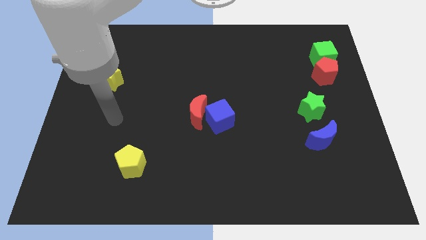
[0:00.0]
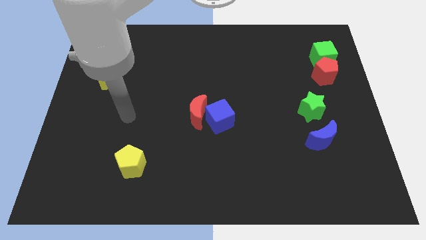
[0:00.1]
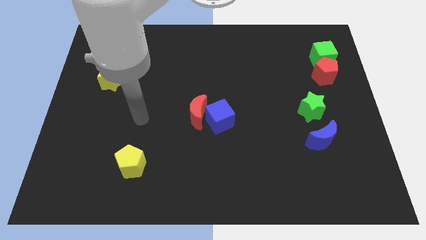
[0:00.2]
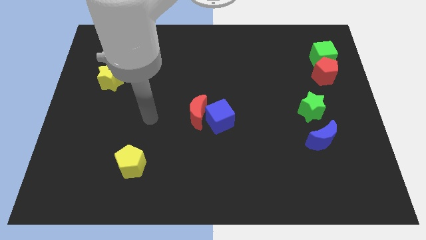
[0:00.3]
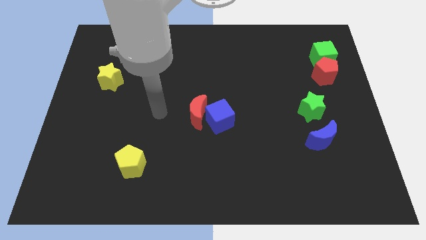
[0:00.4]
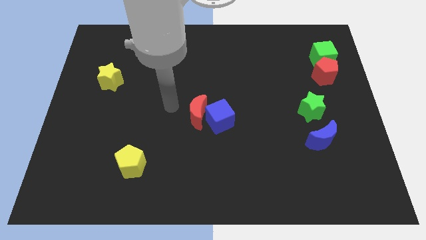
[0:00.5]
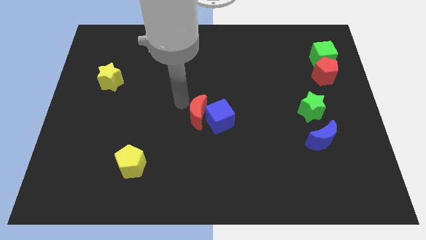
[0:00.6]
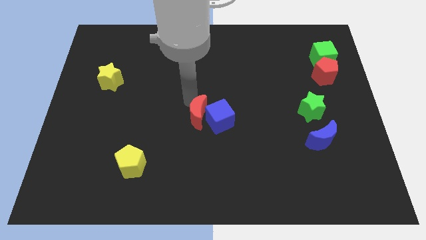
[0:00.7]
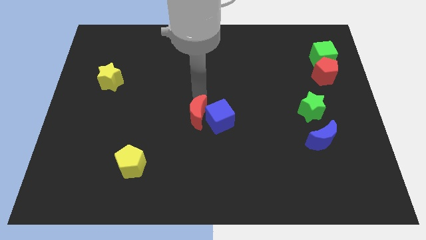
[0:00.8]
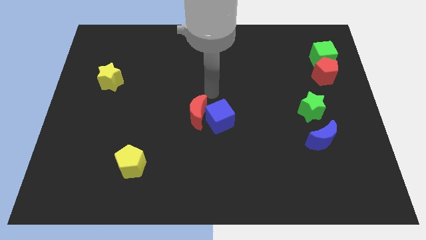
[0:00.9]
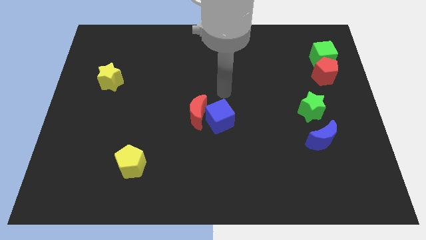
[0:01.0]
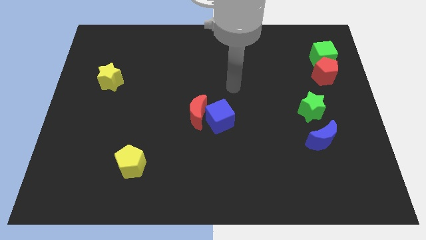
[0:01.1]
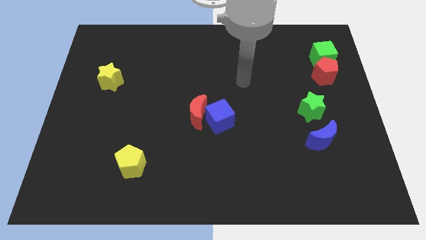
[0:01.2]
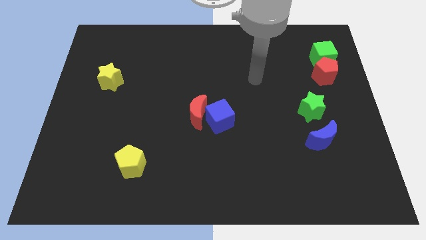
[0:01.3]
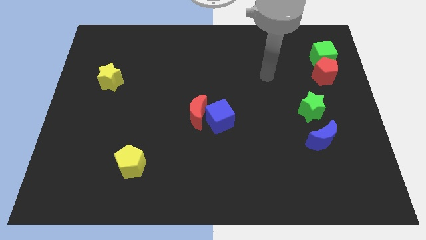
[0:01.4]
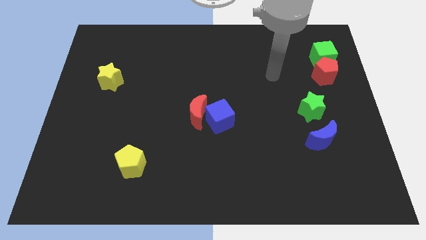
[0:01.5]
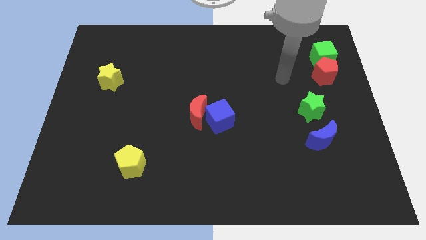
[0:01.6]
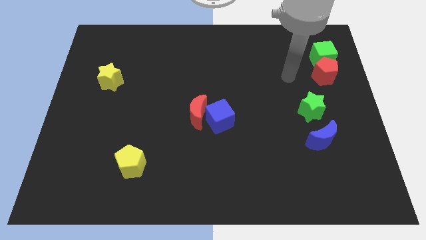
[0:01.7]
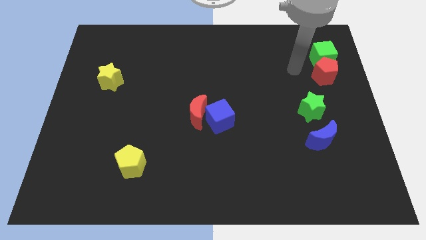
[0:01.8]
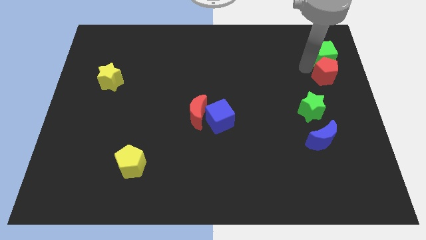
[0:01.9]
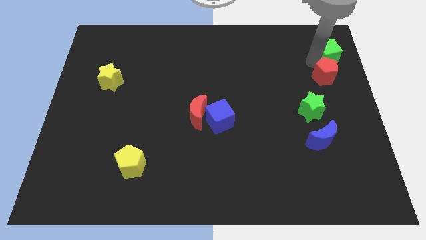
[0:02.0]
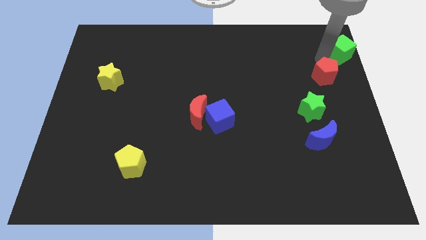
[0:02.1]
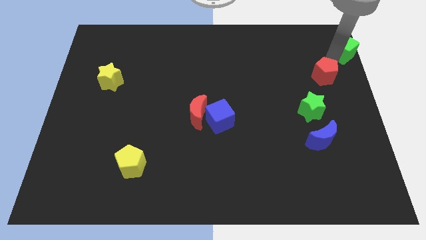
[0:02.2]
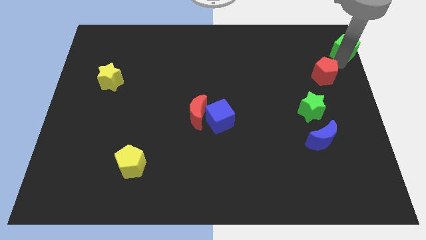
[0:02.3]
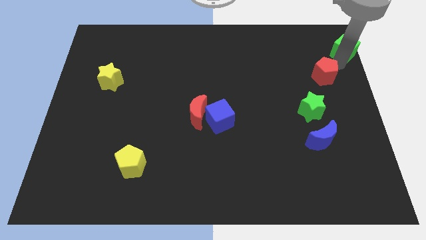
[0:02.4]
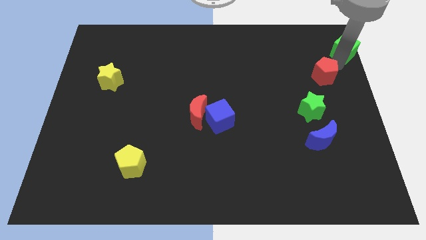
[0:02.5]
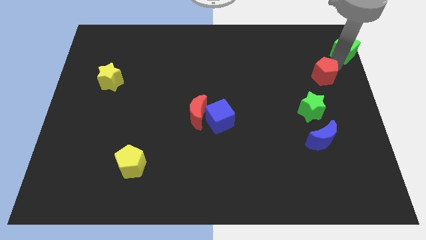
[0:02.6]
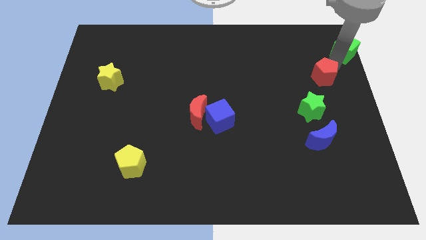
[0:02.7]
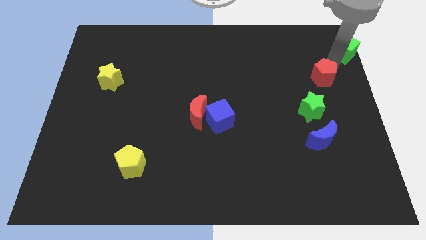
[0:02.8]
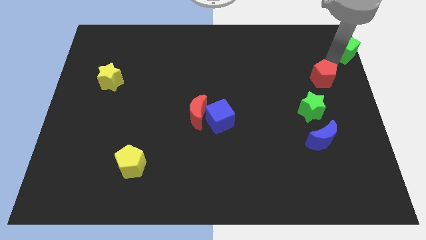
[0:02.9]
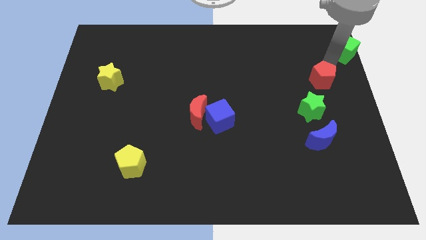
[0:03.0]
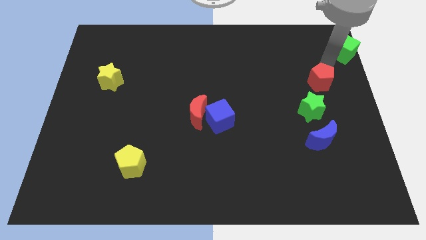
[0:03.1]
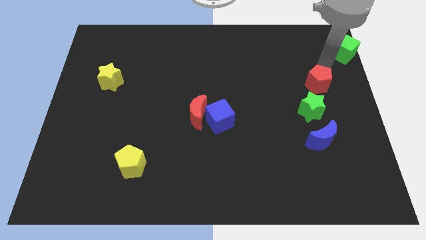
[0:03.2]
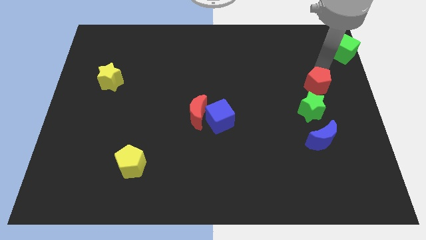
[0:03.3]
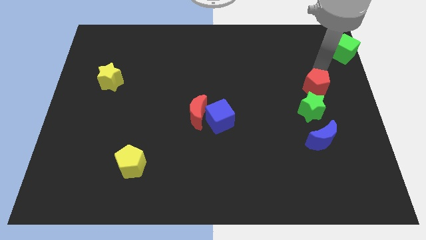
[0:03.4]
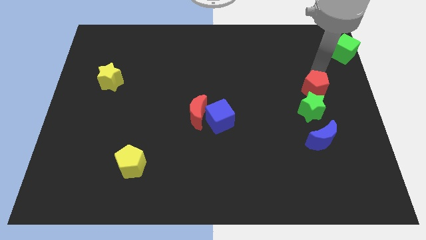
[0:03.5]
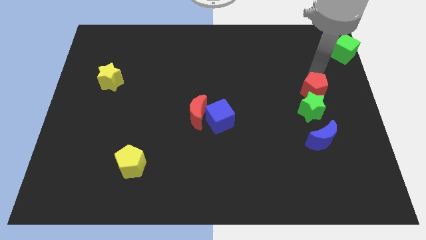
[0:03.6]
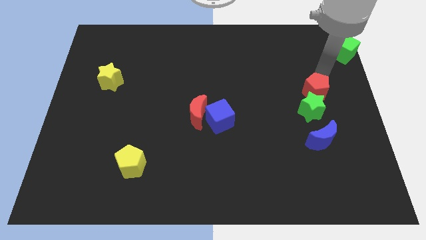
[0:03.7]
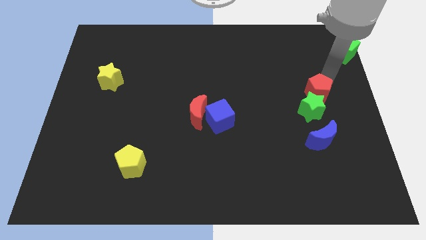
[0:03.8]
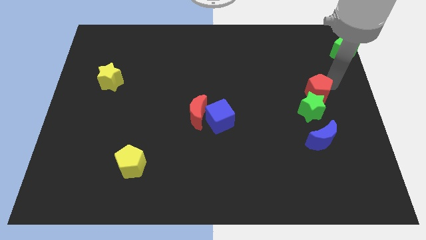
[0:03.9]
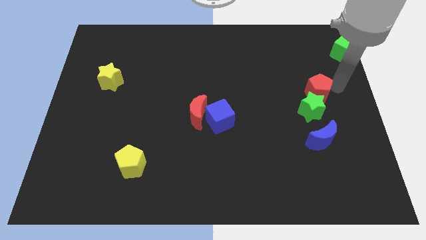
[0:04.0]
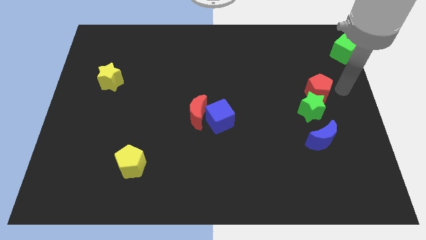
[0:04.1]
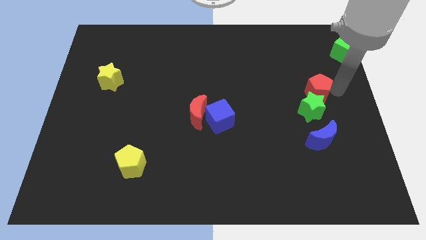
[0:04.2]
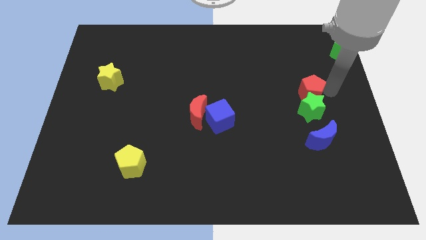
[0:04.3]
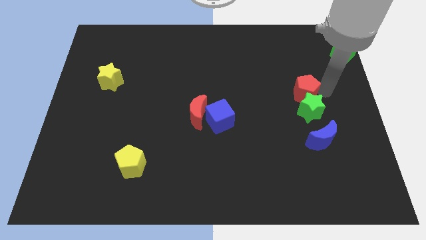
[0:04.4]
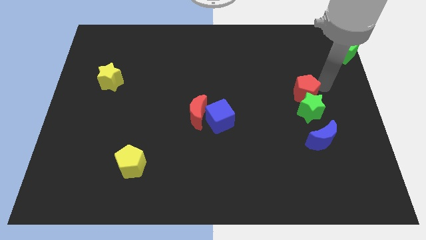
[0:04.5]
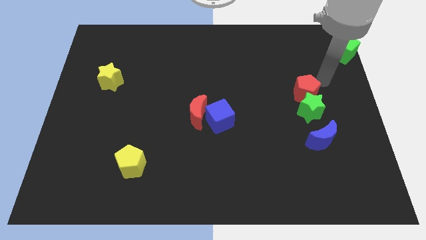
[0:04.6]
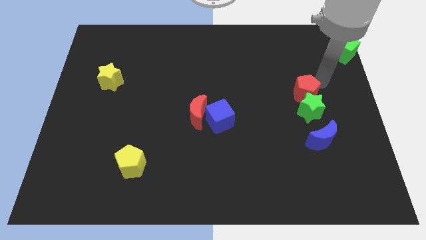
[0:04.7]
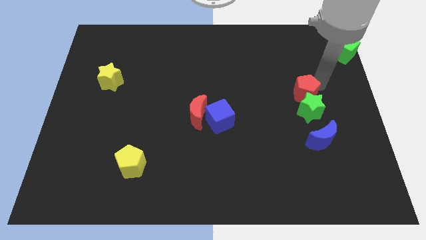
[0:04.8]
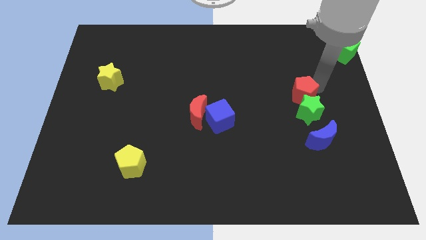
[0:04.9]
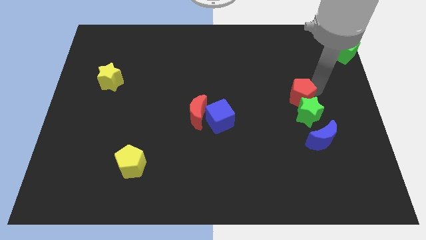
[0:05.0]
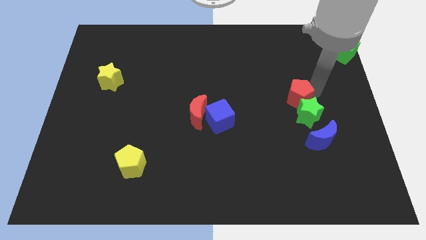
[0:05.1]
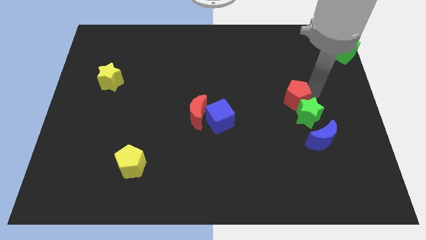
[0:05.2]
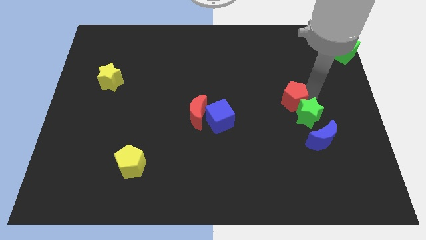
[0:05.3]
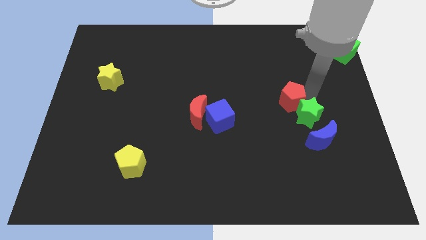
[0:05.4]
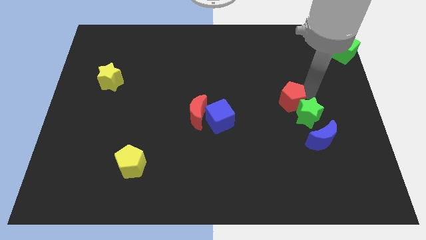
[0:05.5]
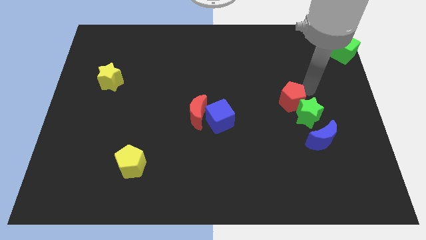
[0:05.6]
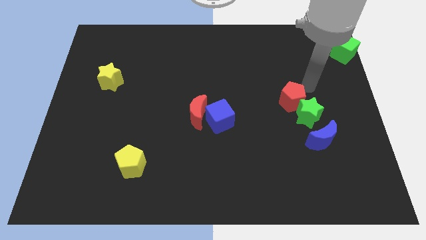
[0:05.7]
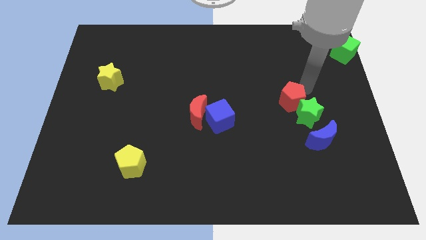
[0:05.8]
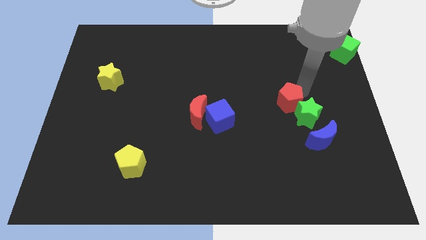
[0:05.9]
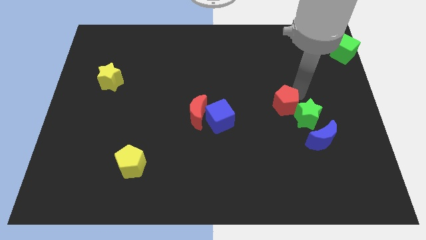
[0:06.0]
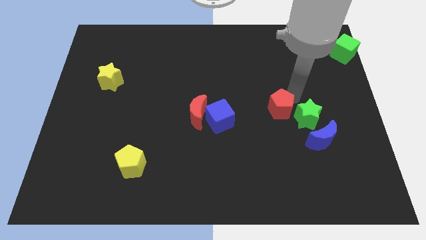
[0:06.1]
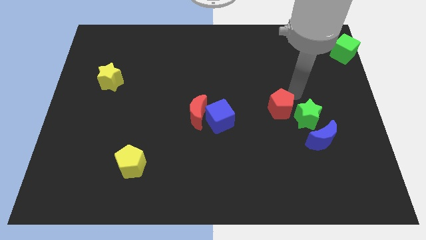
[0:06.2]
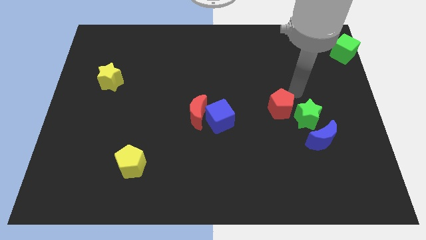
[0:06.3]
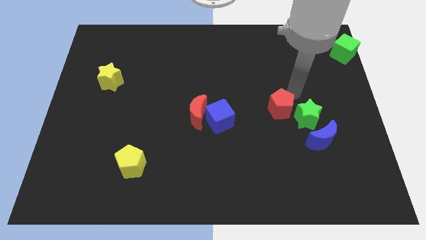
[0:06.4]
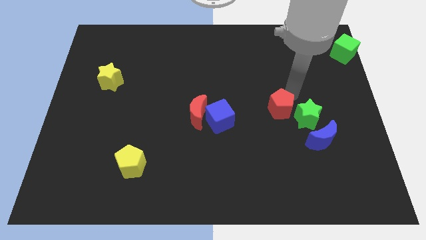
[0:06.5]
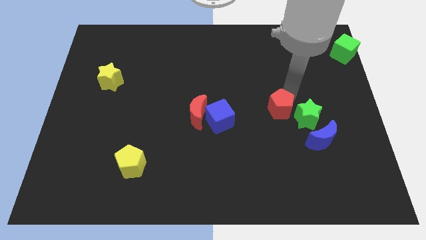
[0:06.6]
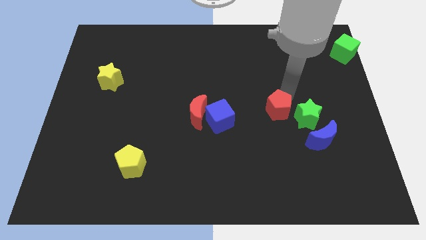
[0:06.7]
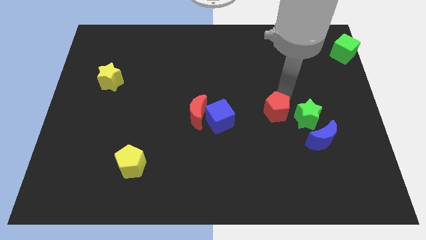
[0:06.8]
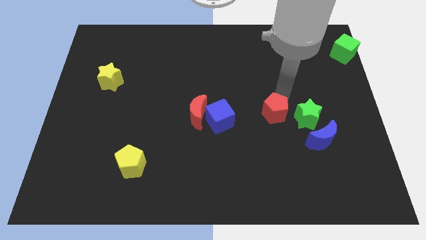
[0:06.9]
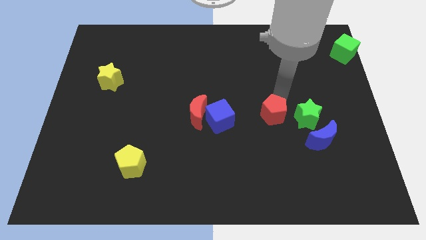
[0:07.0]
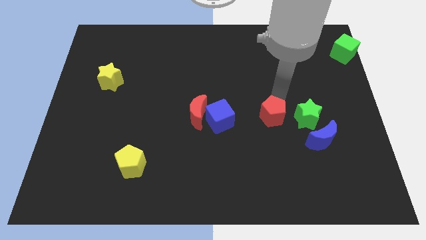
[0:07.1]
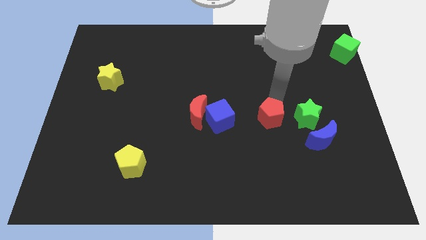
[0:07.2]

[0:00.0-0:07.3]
move the red pentagon diagonally down and left

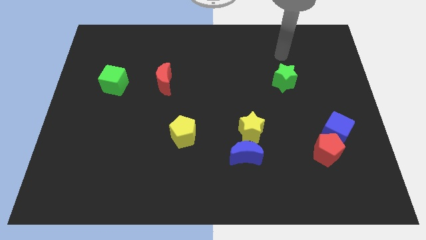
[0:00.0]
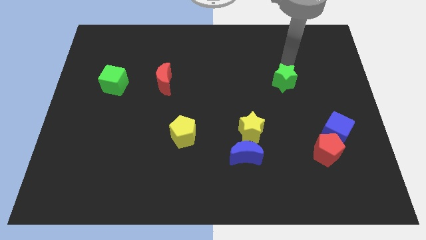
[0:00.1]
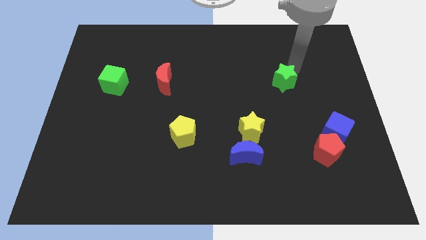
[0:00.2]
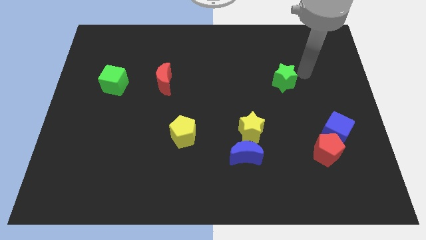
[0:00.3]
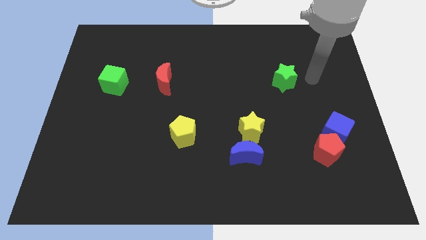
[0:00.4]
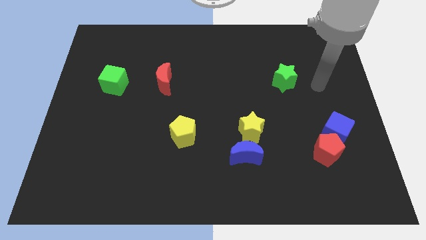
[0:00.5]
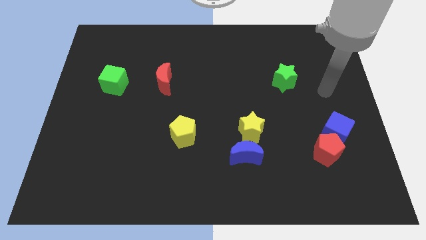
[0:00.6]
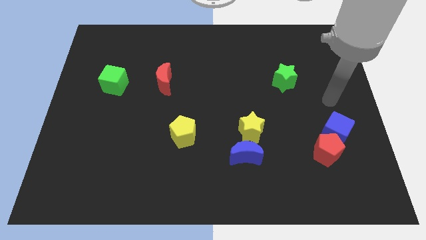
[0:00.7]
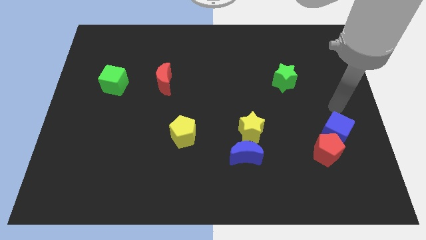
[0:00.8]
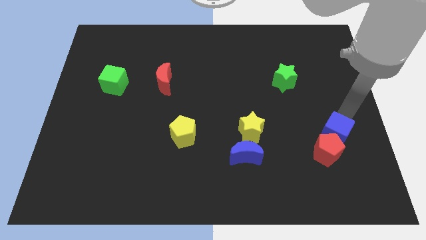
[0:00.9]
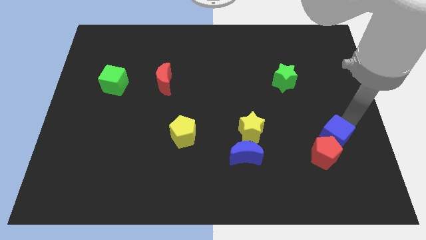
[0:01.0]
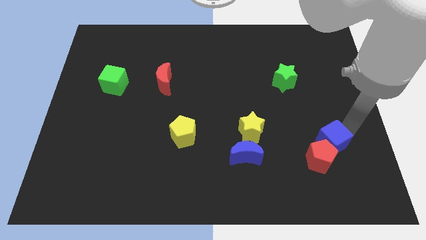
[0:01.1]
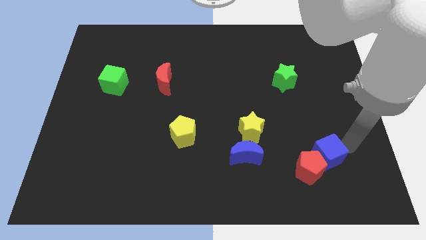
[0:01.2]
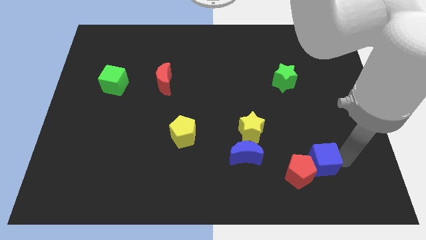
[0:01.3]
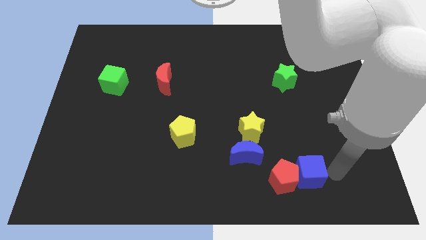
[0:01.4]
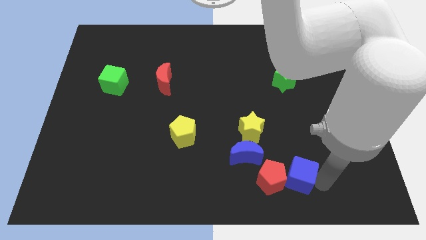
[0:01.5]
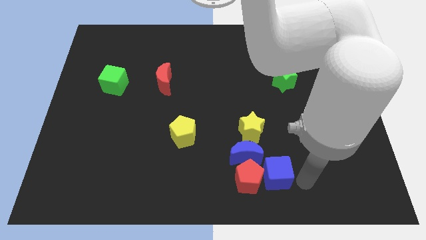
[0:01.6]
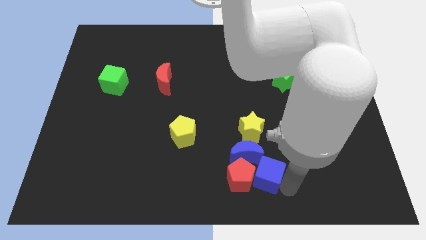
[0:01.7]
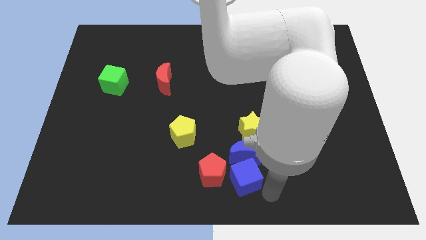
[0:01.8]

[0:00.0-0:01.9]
push the red pentagon left
